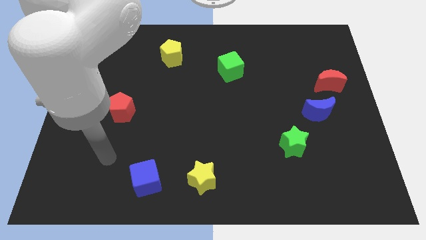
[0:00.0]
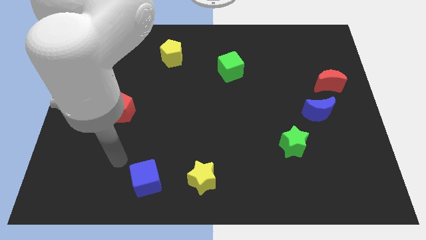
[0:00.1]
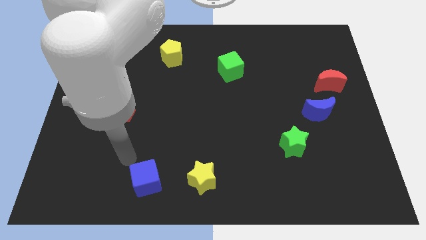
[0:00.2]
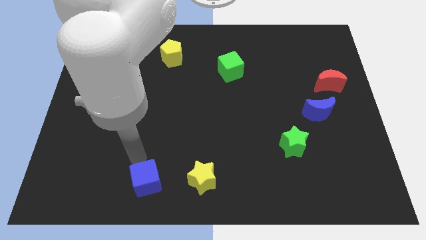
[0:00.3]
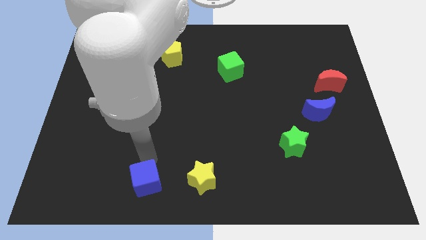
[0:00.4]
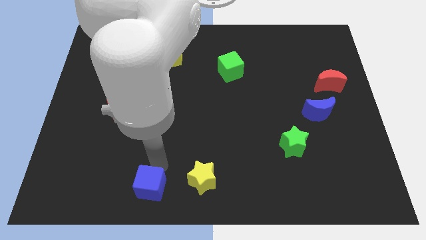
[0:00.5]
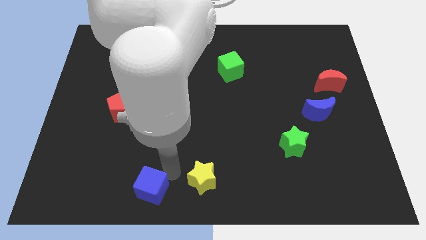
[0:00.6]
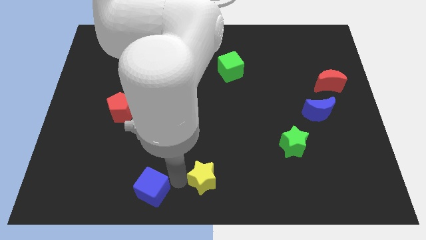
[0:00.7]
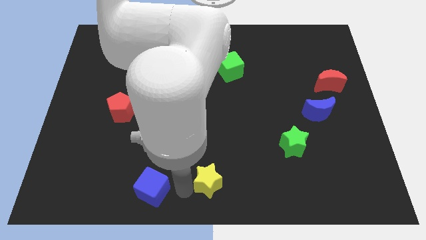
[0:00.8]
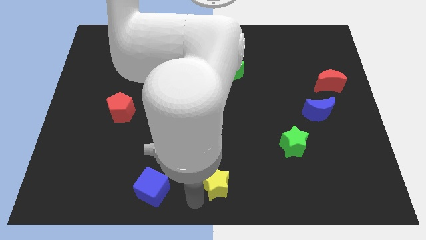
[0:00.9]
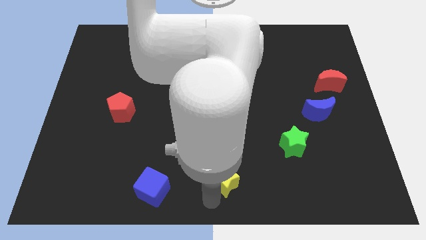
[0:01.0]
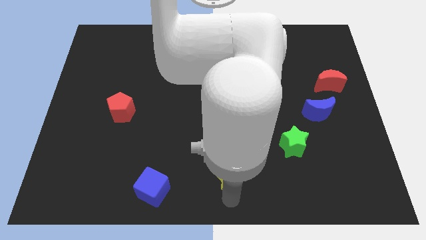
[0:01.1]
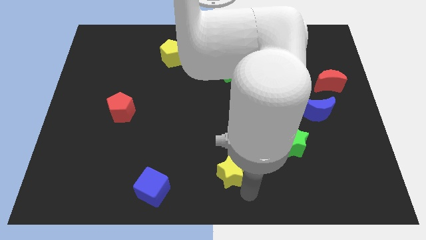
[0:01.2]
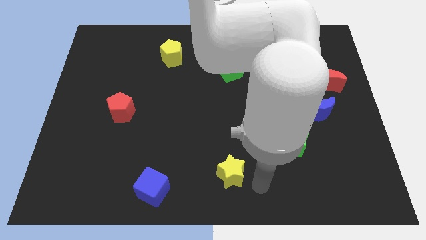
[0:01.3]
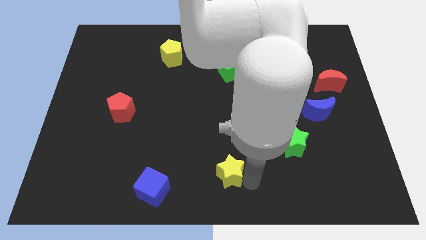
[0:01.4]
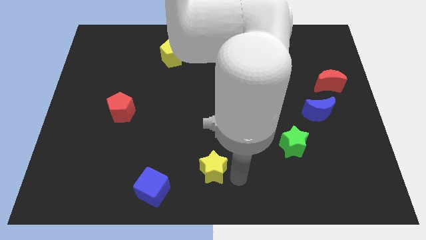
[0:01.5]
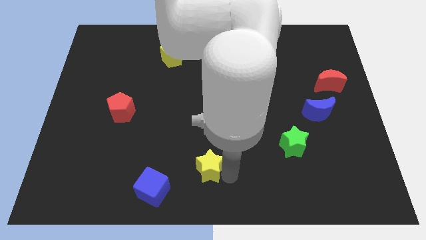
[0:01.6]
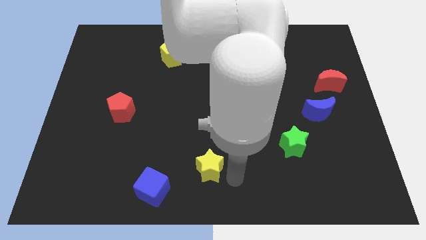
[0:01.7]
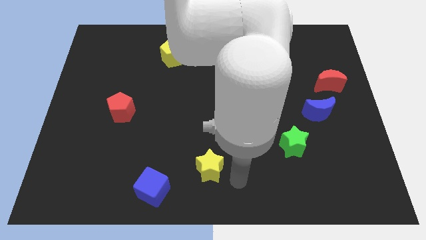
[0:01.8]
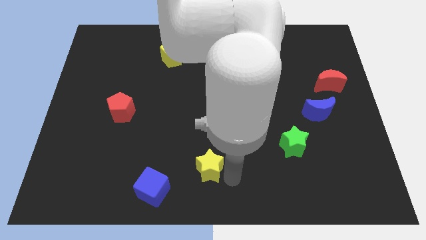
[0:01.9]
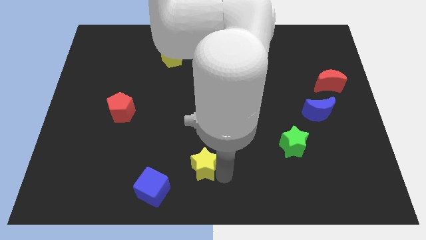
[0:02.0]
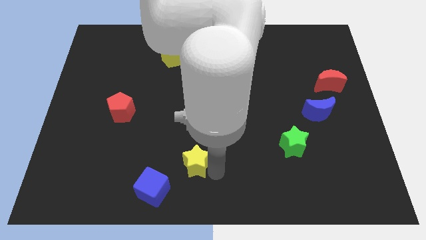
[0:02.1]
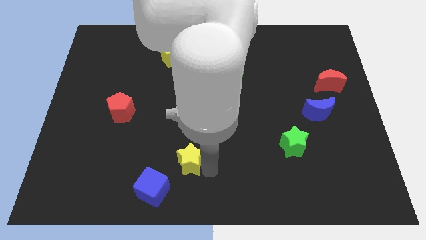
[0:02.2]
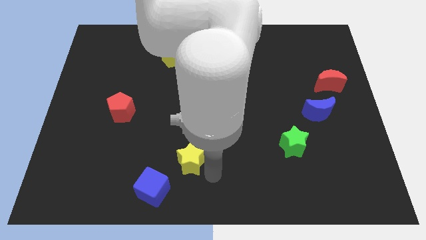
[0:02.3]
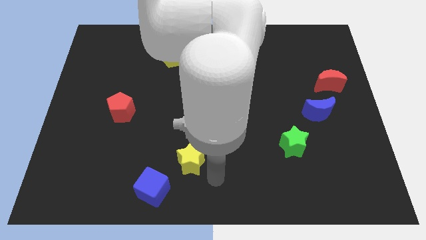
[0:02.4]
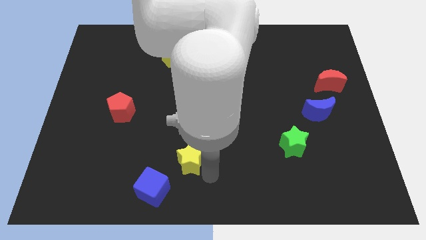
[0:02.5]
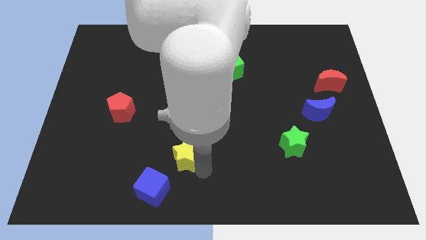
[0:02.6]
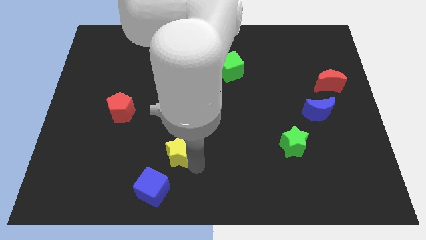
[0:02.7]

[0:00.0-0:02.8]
slide the yellow star somewhat upwards and left diagonally

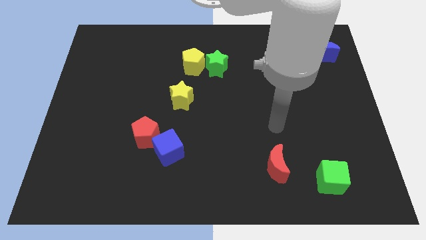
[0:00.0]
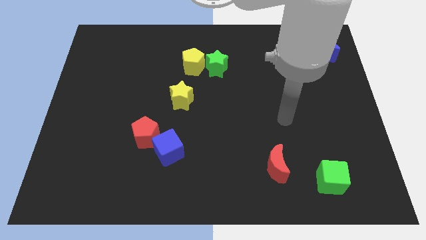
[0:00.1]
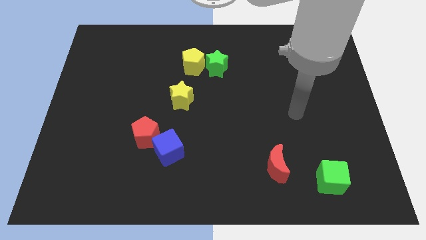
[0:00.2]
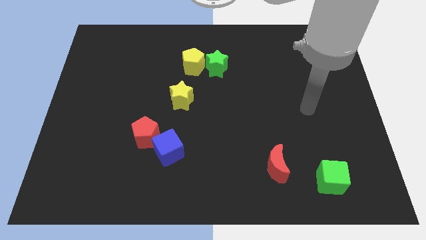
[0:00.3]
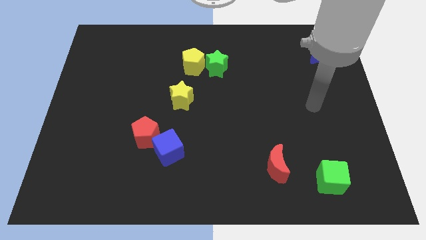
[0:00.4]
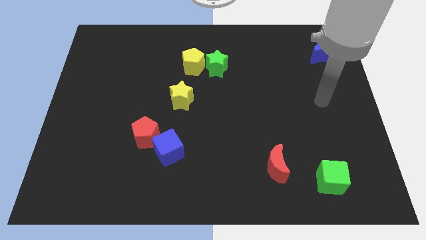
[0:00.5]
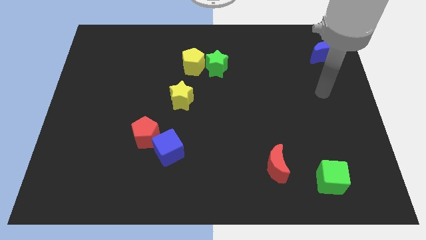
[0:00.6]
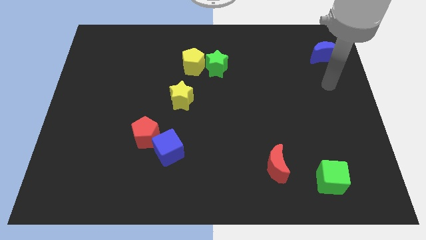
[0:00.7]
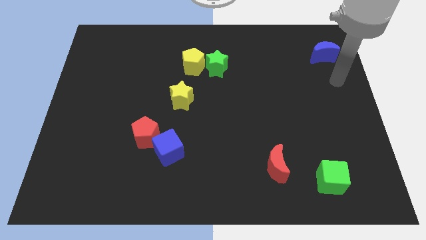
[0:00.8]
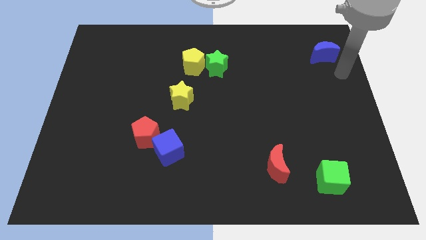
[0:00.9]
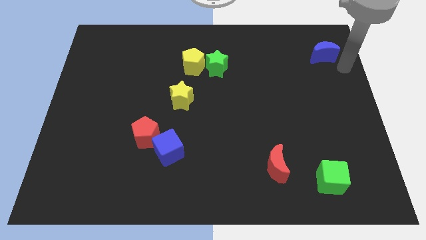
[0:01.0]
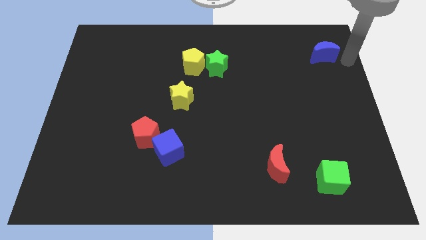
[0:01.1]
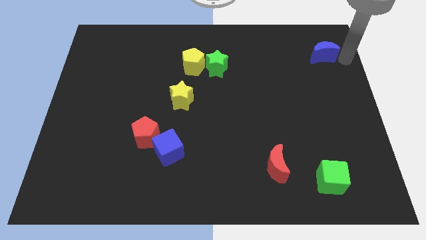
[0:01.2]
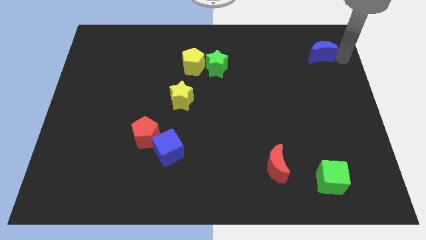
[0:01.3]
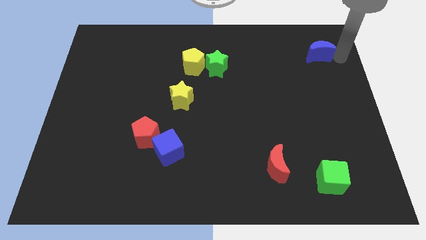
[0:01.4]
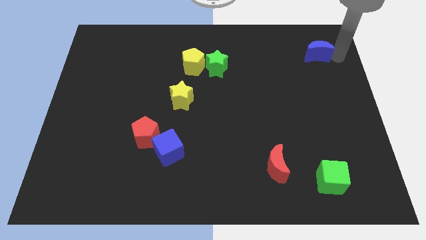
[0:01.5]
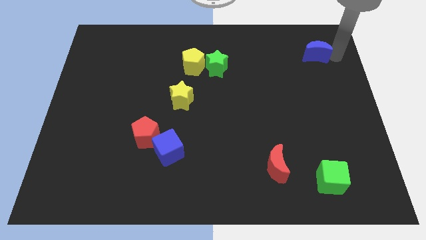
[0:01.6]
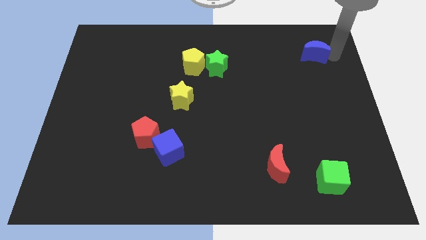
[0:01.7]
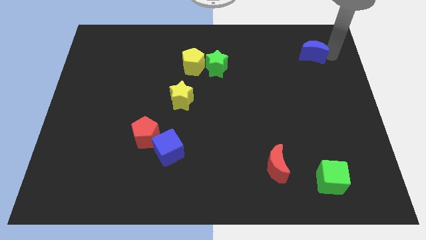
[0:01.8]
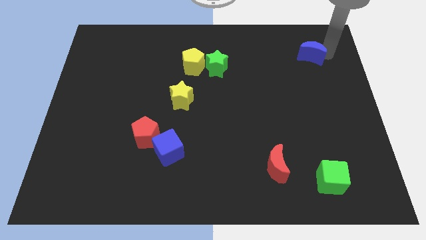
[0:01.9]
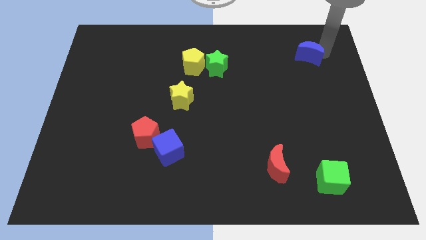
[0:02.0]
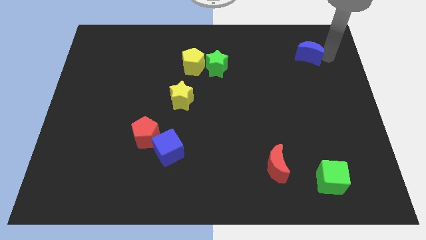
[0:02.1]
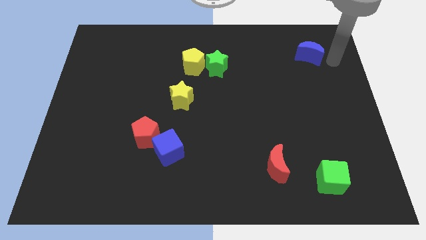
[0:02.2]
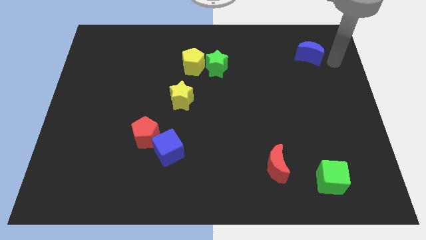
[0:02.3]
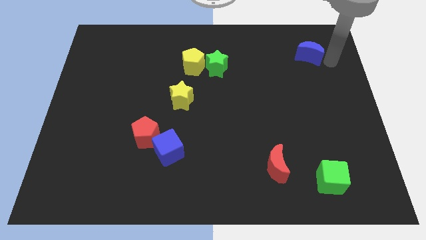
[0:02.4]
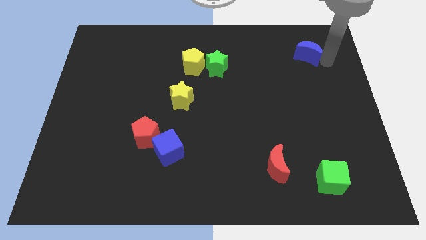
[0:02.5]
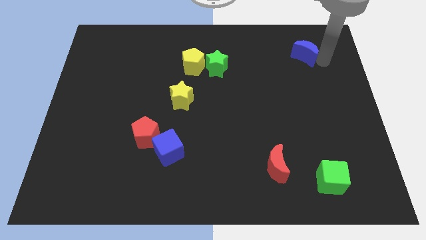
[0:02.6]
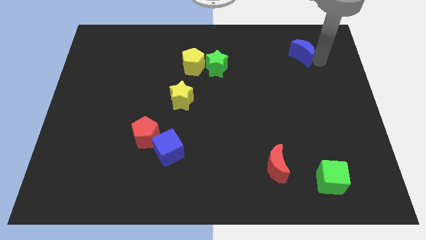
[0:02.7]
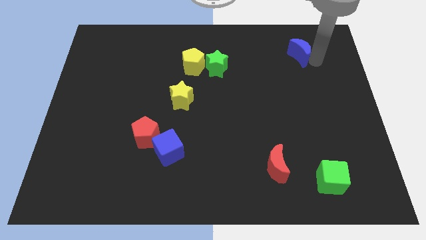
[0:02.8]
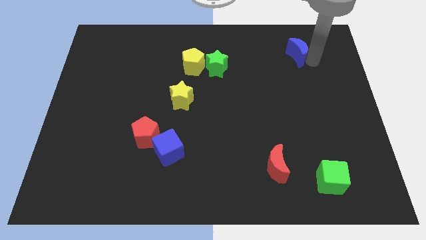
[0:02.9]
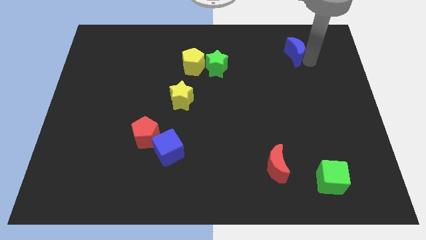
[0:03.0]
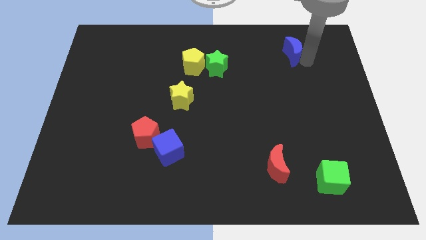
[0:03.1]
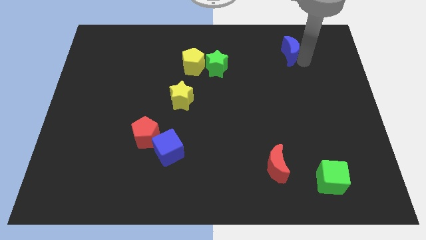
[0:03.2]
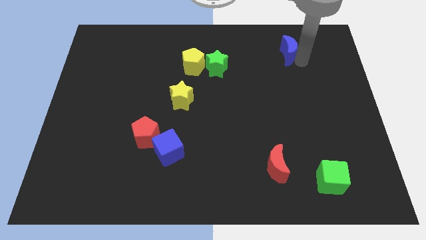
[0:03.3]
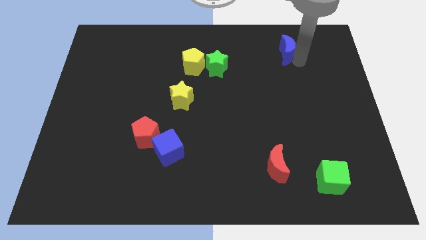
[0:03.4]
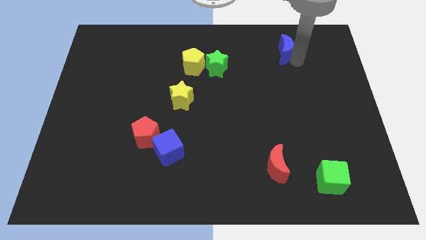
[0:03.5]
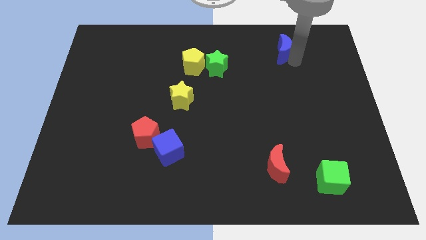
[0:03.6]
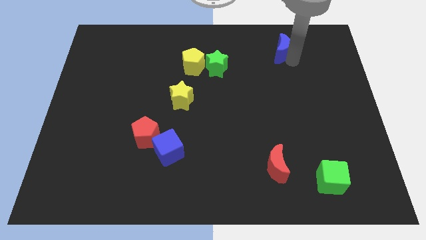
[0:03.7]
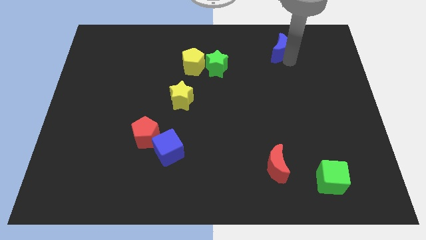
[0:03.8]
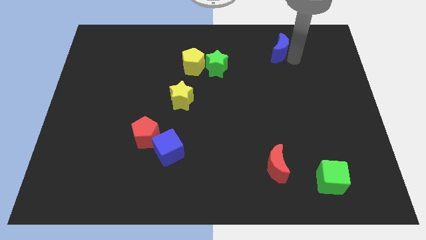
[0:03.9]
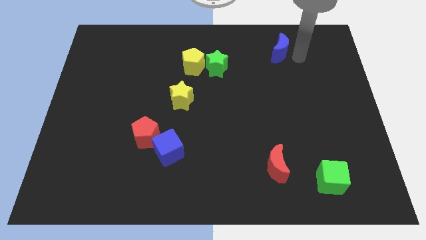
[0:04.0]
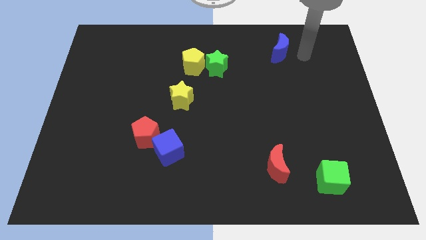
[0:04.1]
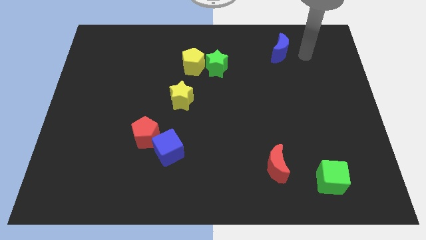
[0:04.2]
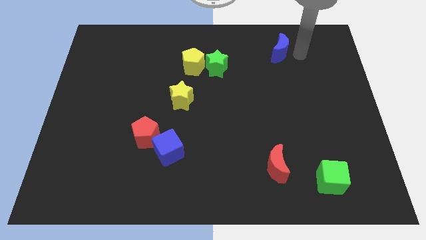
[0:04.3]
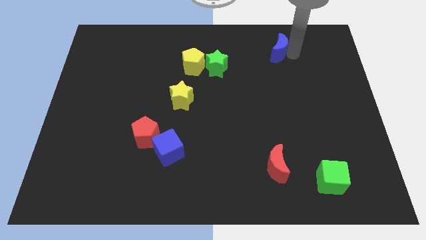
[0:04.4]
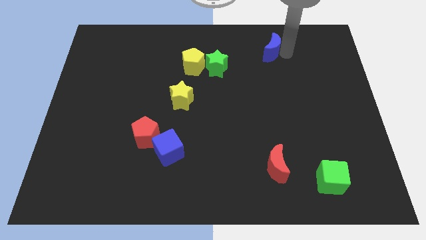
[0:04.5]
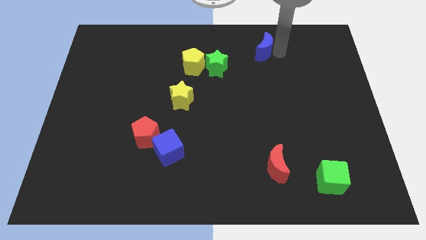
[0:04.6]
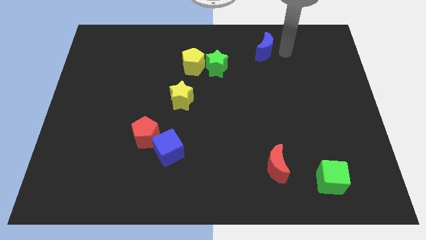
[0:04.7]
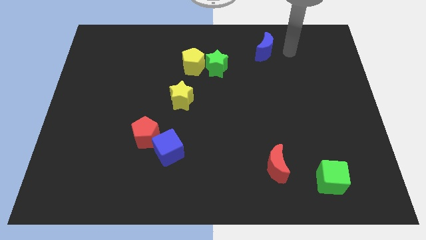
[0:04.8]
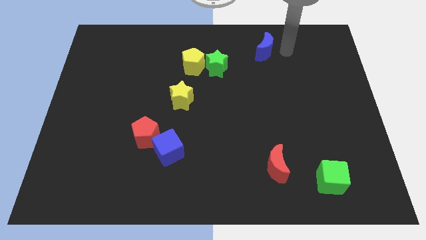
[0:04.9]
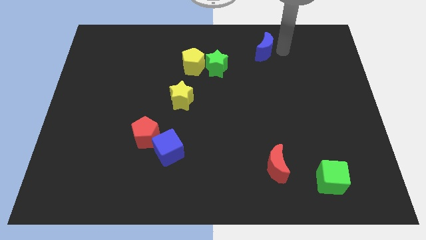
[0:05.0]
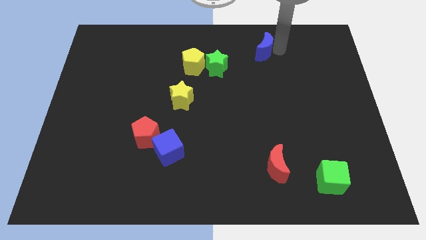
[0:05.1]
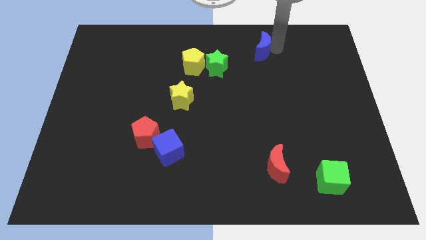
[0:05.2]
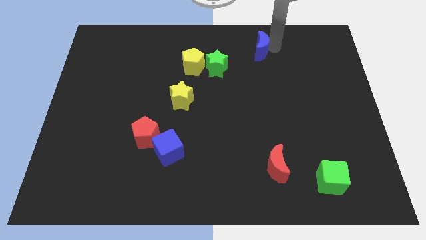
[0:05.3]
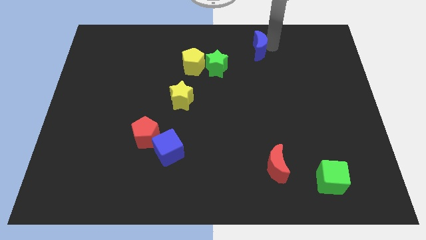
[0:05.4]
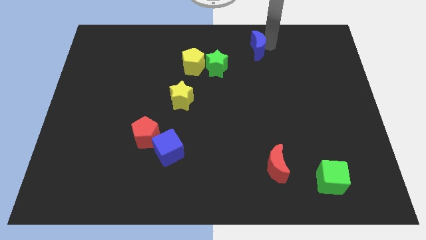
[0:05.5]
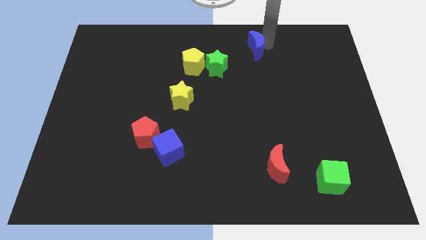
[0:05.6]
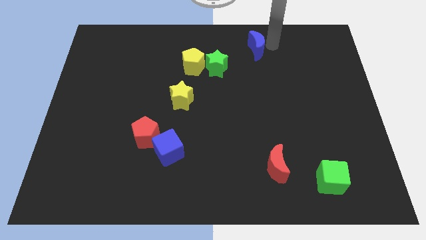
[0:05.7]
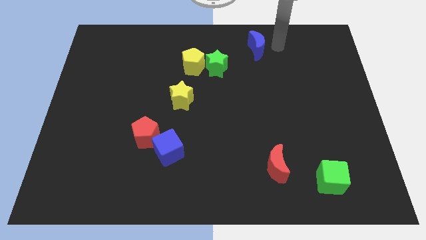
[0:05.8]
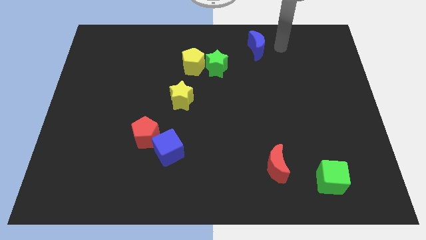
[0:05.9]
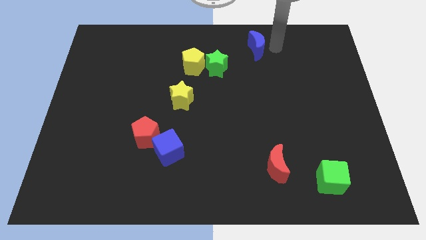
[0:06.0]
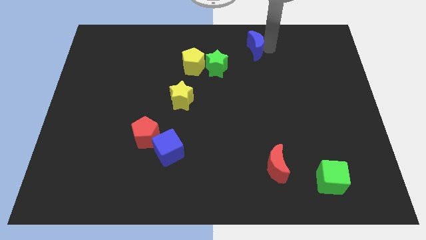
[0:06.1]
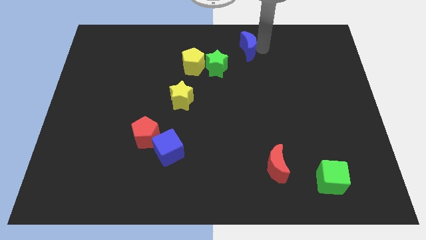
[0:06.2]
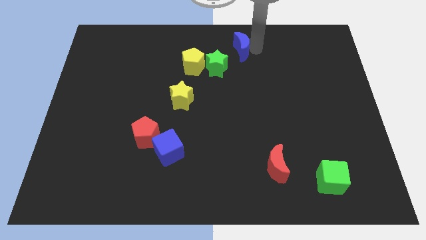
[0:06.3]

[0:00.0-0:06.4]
slide the blue moon left
